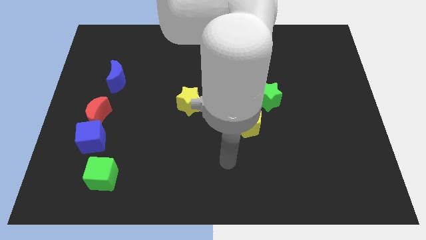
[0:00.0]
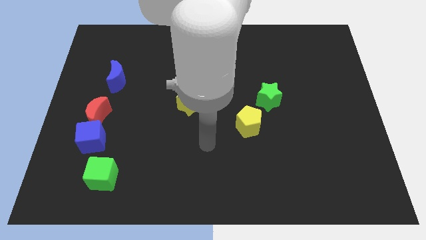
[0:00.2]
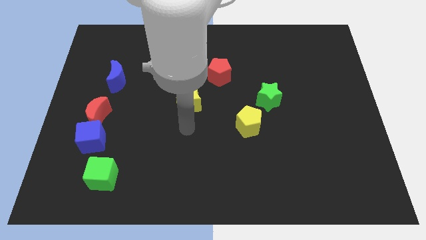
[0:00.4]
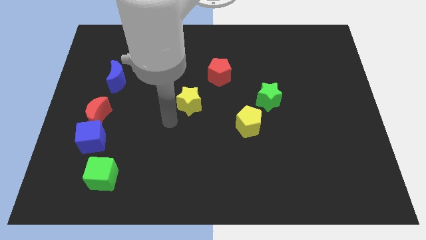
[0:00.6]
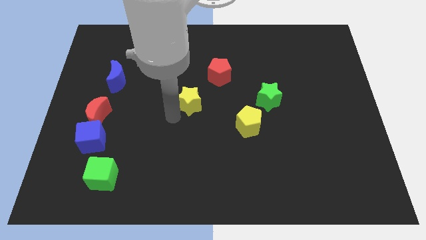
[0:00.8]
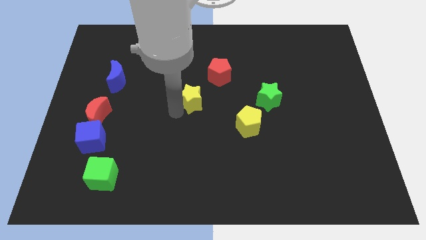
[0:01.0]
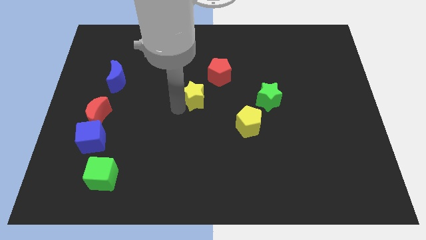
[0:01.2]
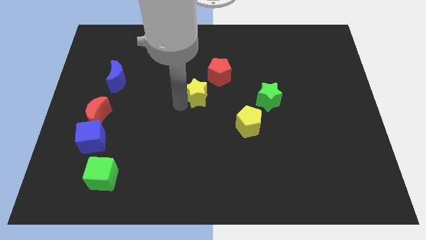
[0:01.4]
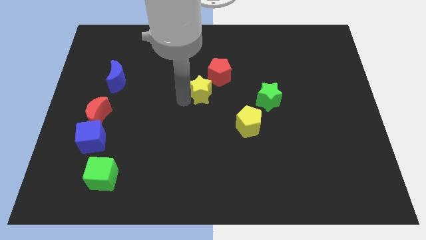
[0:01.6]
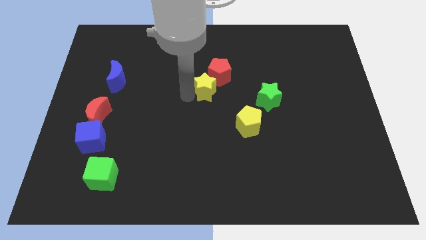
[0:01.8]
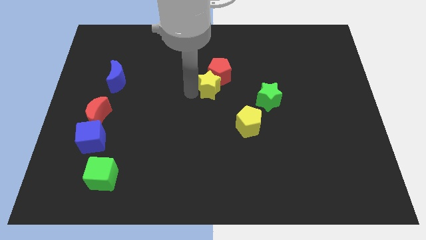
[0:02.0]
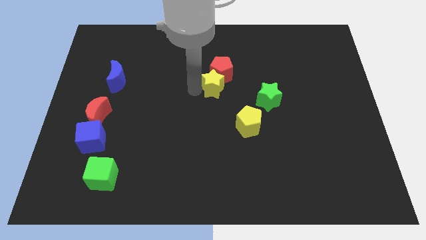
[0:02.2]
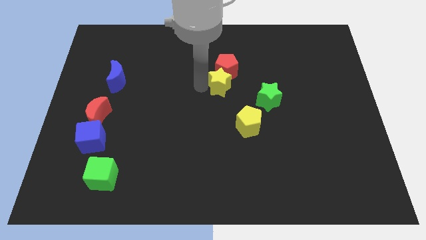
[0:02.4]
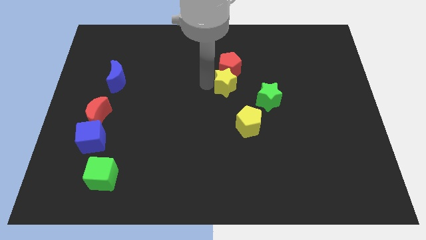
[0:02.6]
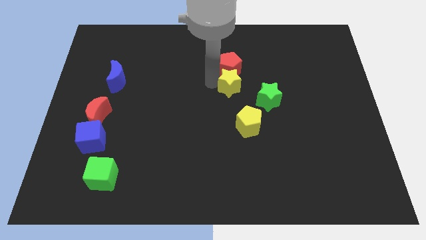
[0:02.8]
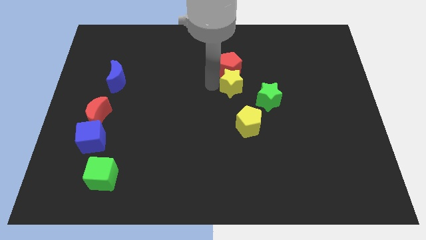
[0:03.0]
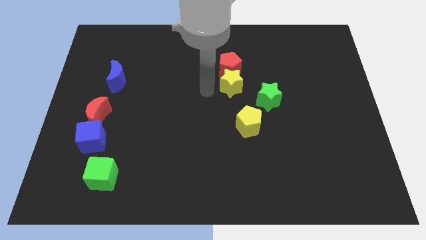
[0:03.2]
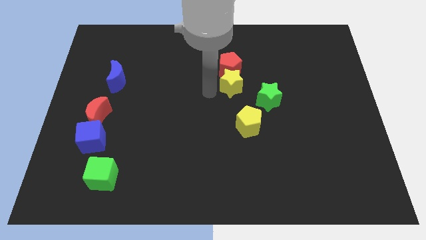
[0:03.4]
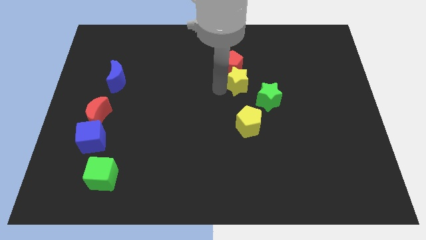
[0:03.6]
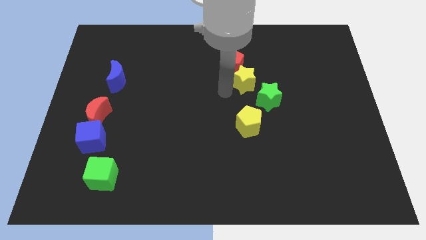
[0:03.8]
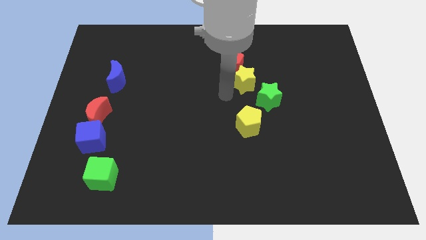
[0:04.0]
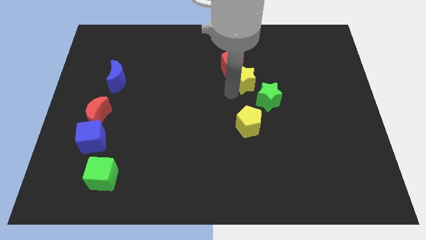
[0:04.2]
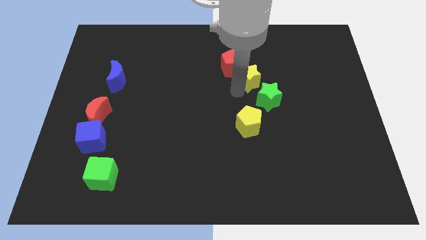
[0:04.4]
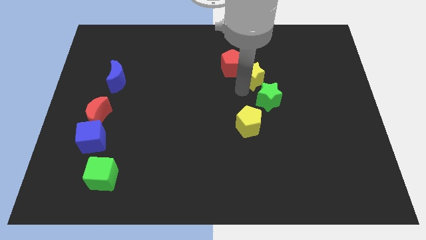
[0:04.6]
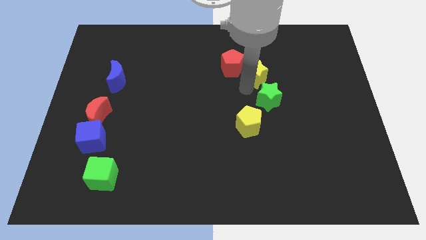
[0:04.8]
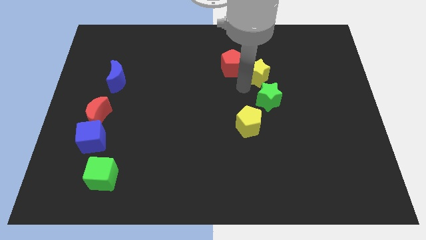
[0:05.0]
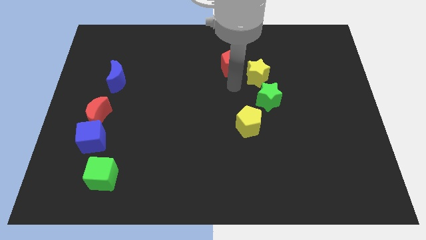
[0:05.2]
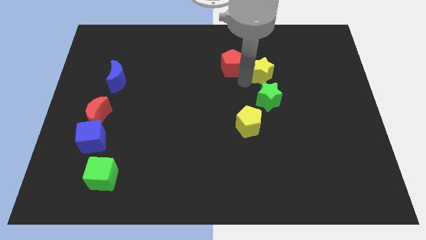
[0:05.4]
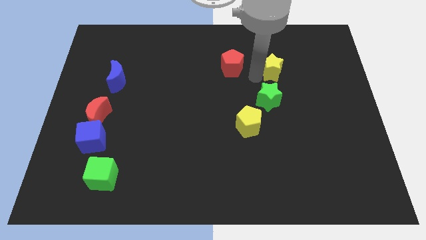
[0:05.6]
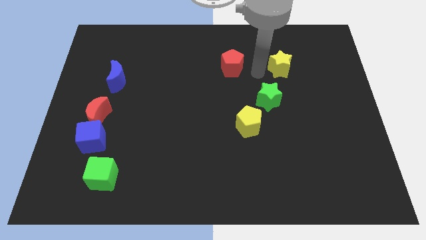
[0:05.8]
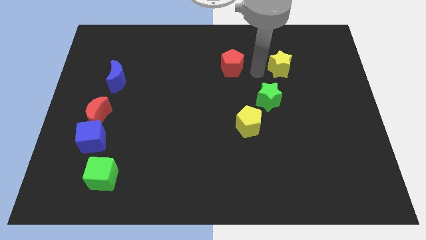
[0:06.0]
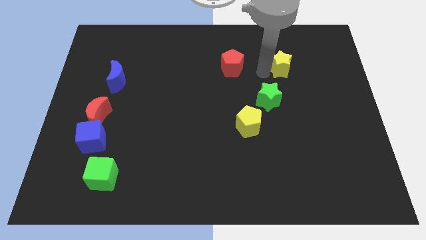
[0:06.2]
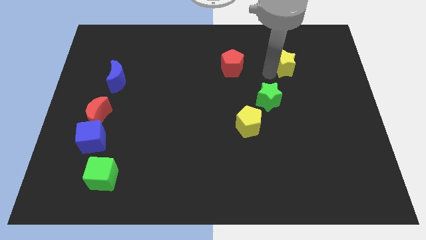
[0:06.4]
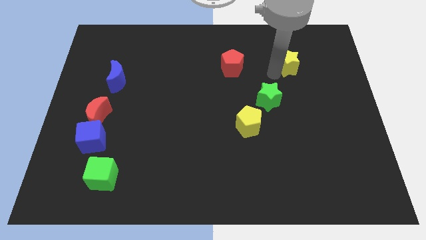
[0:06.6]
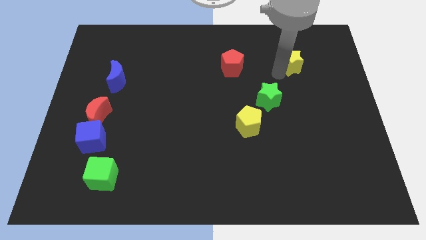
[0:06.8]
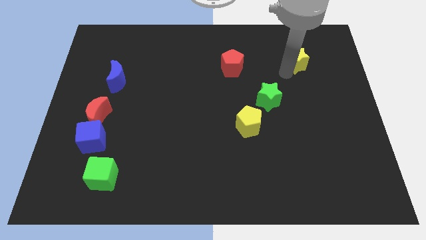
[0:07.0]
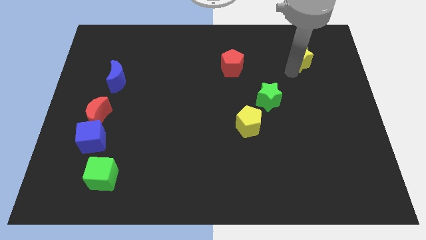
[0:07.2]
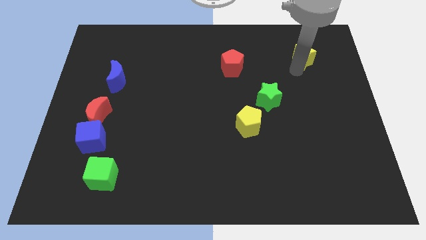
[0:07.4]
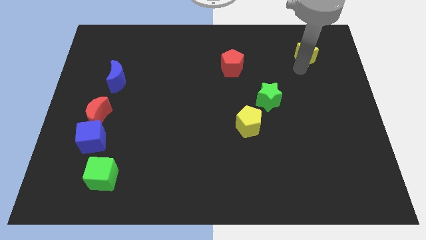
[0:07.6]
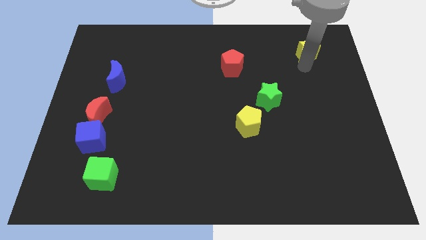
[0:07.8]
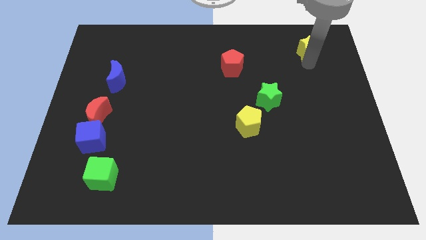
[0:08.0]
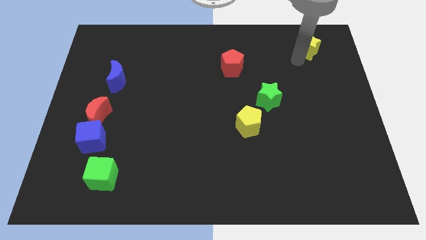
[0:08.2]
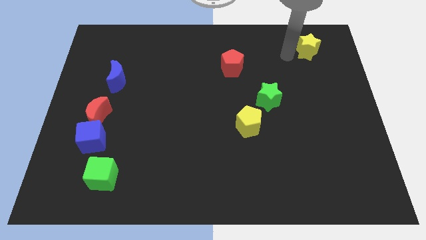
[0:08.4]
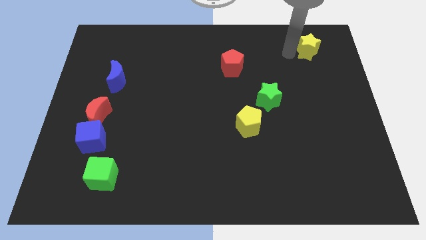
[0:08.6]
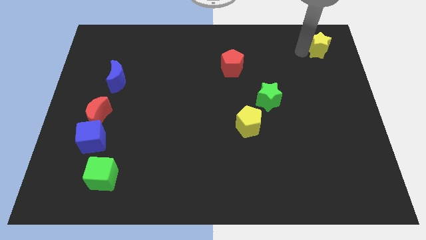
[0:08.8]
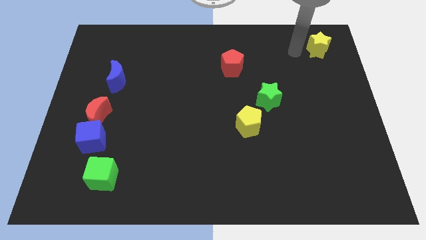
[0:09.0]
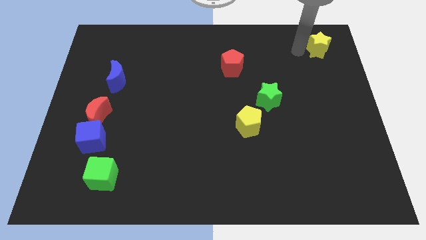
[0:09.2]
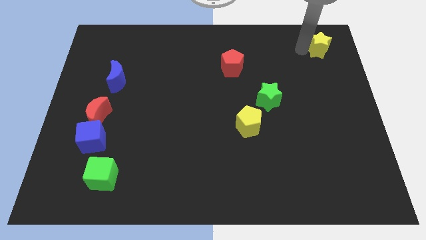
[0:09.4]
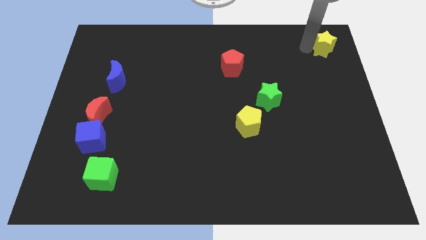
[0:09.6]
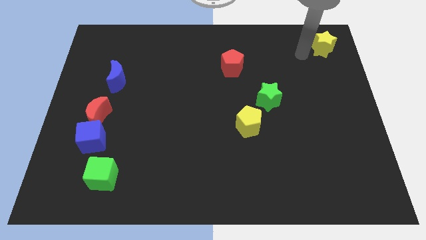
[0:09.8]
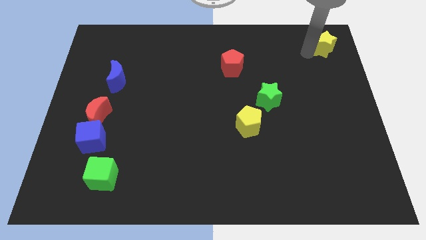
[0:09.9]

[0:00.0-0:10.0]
slide the yellow star to the top right of the board

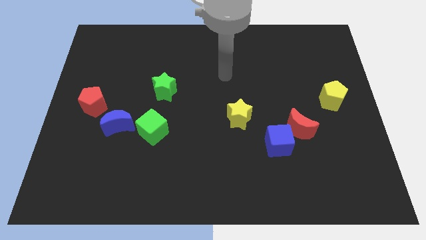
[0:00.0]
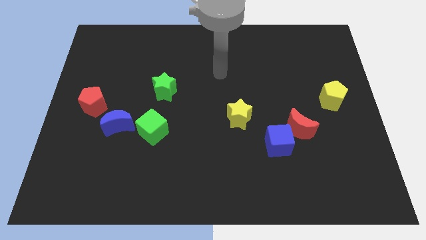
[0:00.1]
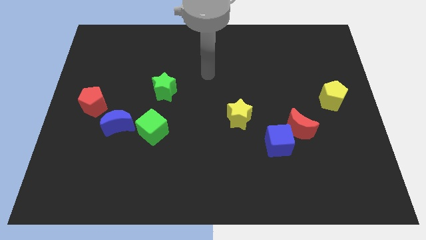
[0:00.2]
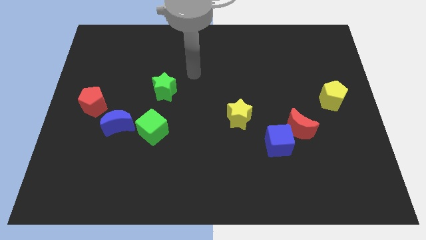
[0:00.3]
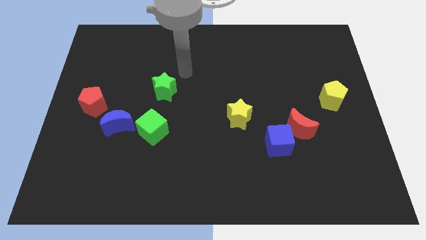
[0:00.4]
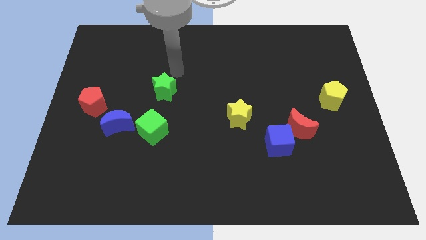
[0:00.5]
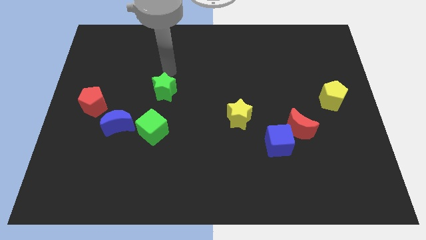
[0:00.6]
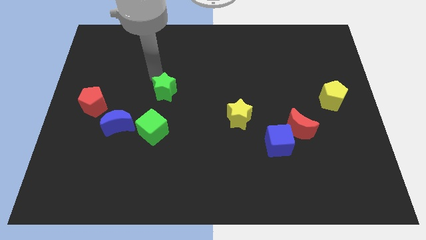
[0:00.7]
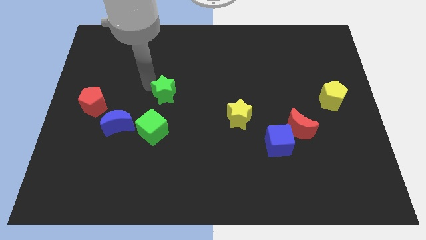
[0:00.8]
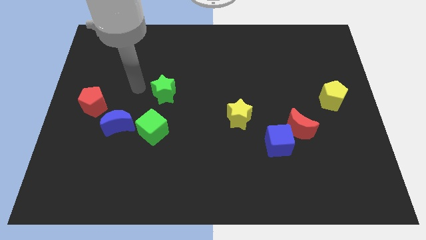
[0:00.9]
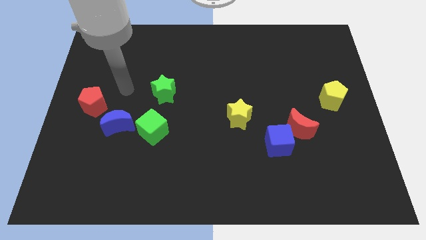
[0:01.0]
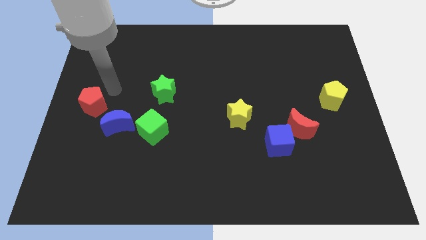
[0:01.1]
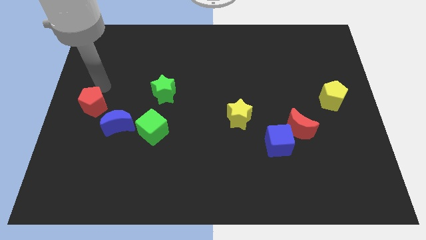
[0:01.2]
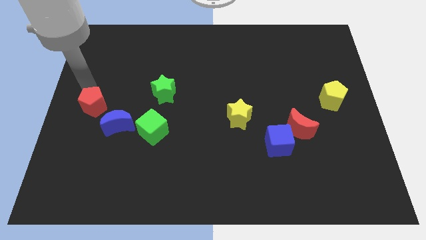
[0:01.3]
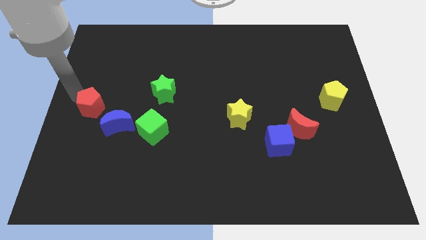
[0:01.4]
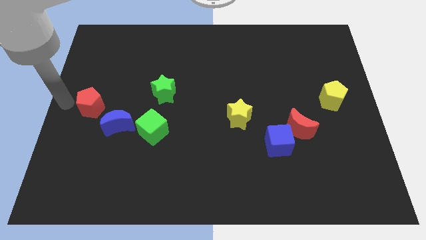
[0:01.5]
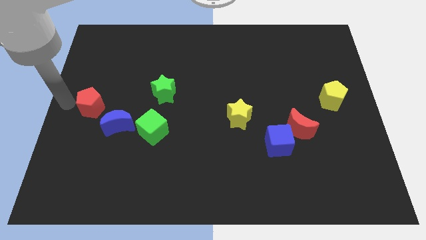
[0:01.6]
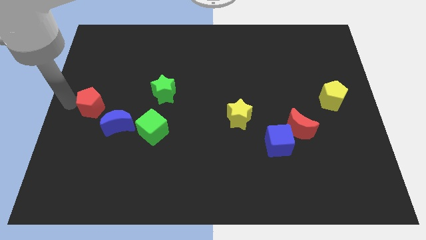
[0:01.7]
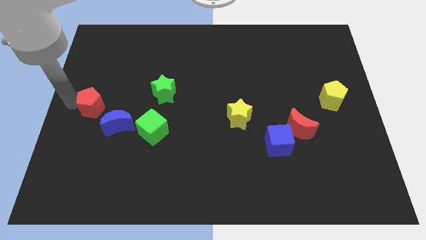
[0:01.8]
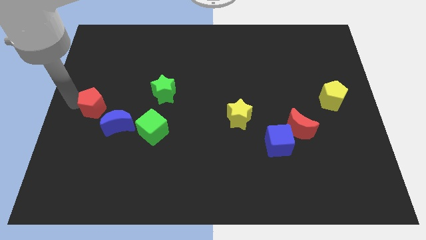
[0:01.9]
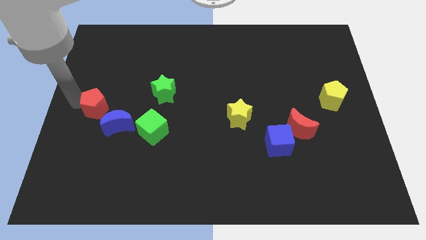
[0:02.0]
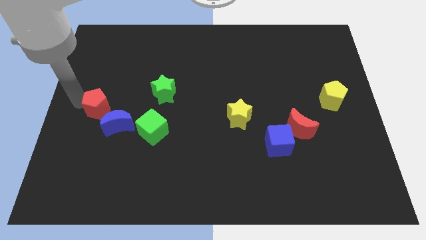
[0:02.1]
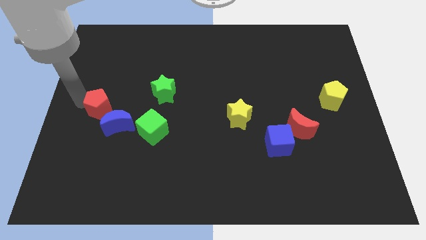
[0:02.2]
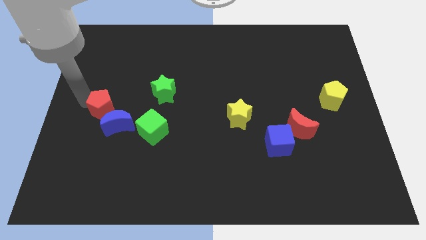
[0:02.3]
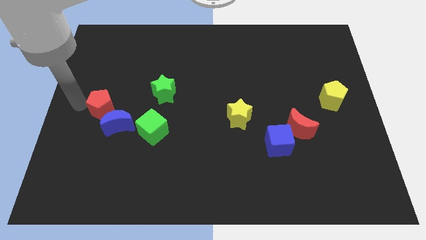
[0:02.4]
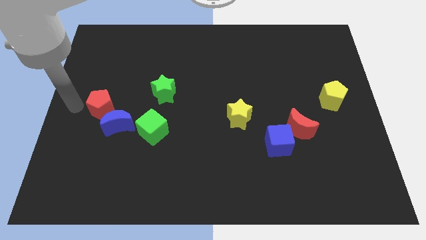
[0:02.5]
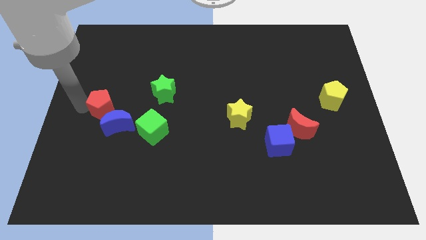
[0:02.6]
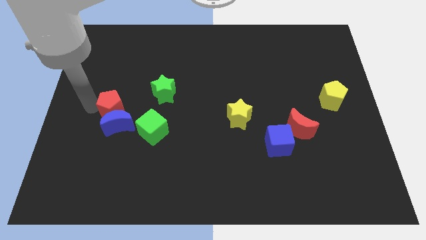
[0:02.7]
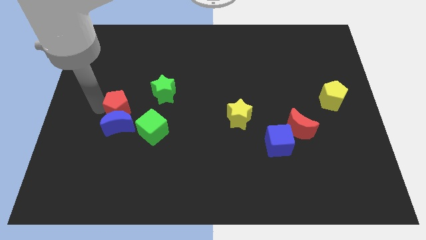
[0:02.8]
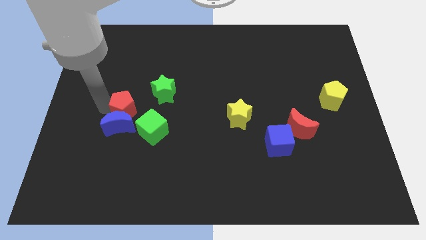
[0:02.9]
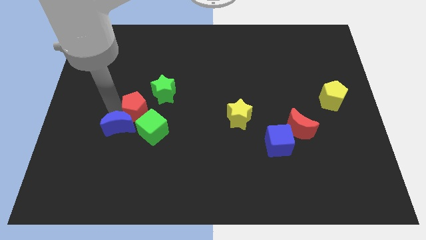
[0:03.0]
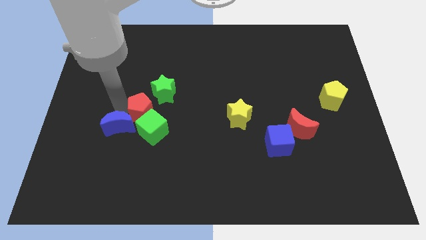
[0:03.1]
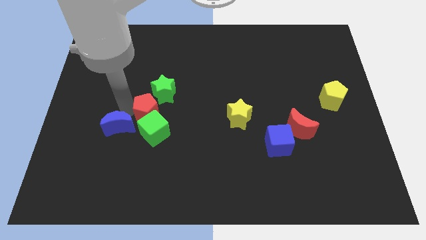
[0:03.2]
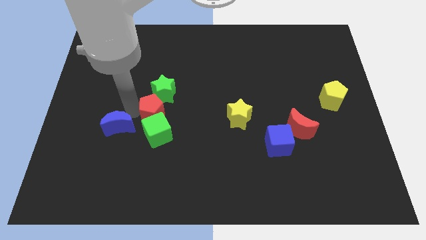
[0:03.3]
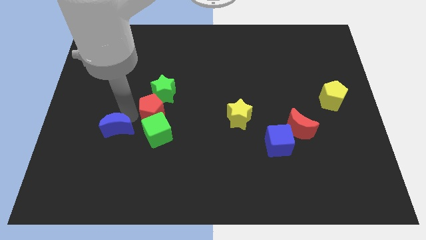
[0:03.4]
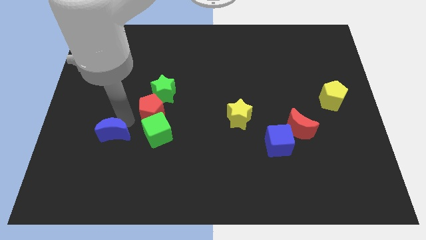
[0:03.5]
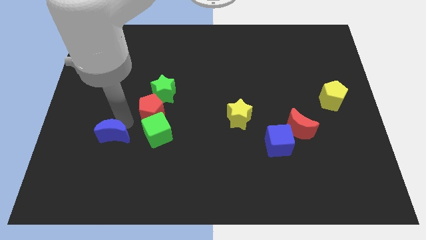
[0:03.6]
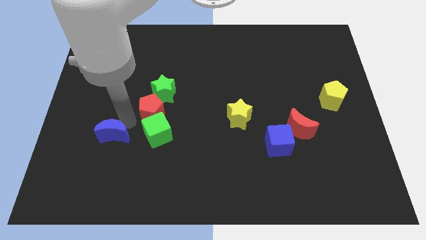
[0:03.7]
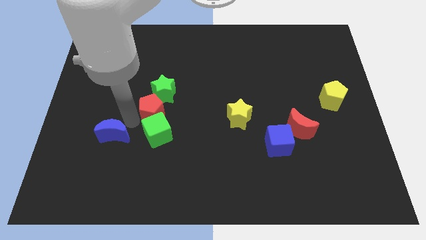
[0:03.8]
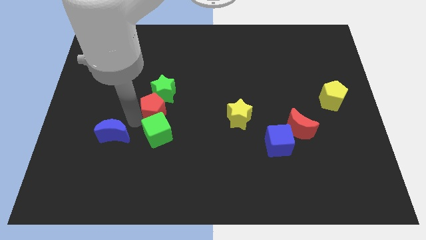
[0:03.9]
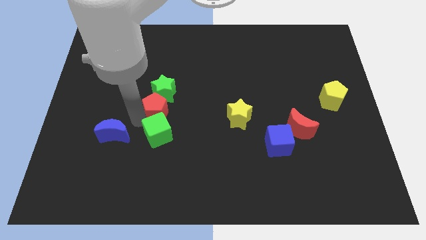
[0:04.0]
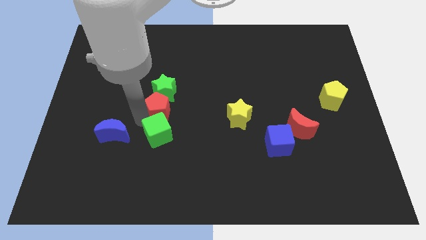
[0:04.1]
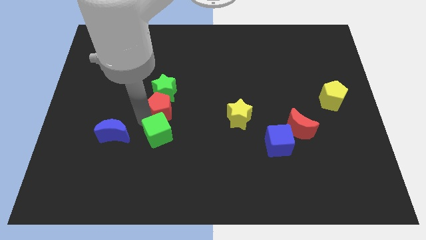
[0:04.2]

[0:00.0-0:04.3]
put the red pentagon to the center
